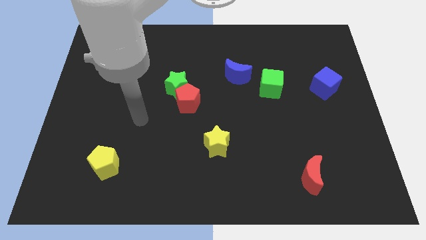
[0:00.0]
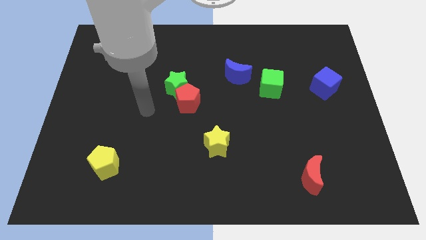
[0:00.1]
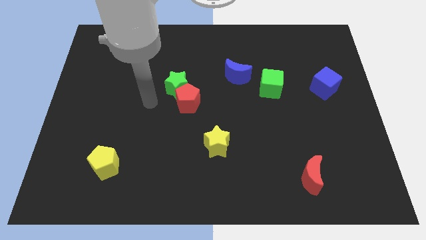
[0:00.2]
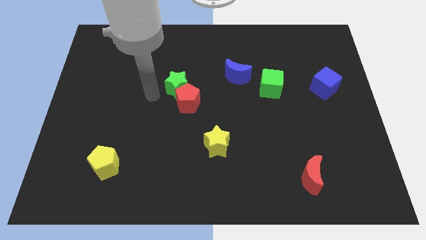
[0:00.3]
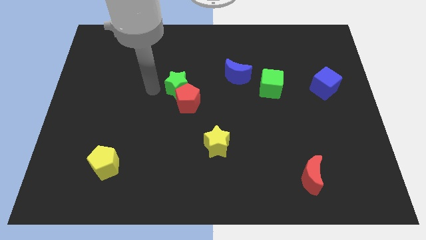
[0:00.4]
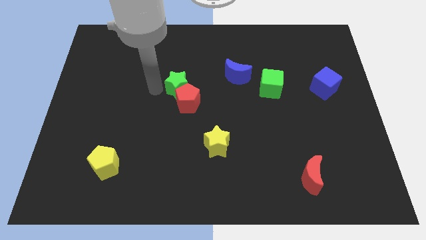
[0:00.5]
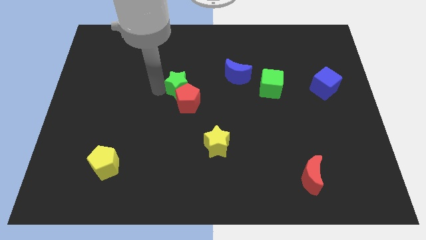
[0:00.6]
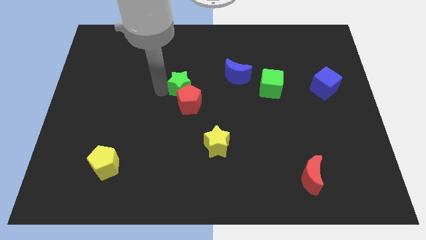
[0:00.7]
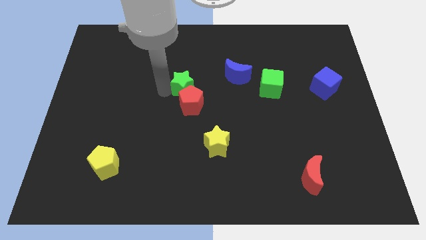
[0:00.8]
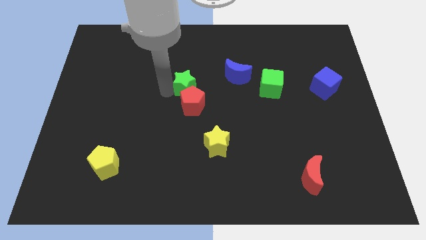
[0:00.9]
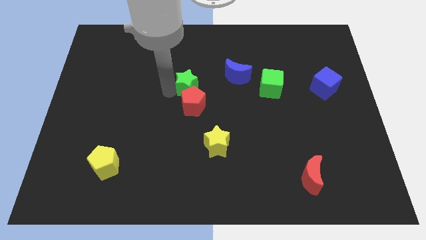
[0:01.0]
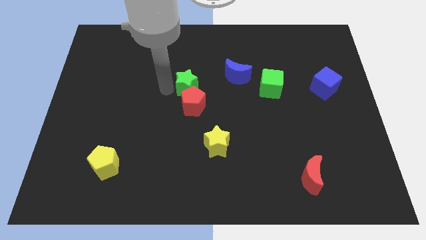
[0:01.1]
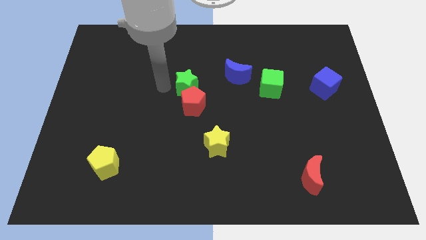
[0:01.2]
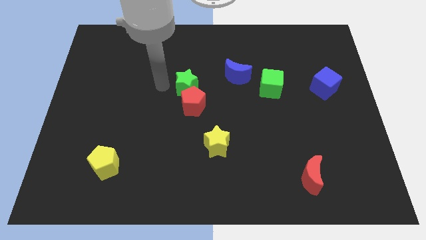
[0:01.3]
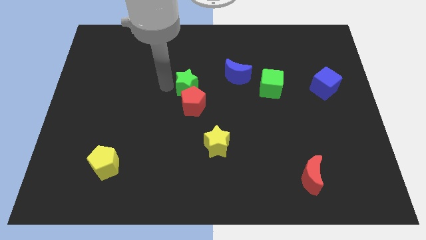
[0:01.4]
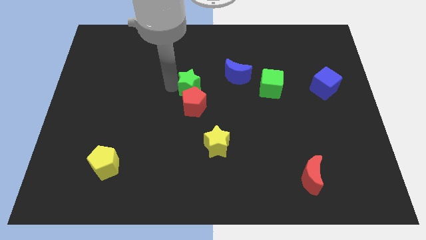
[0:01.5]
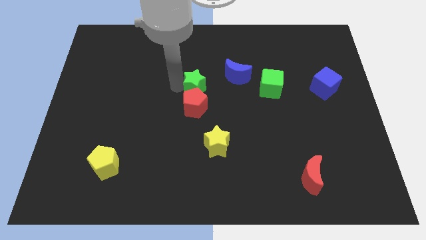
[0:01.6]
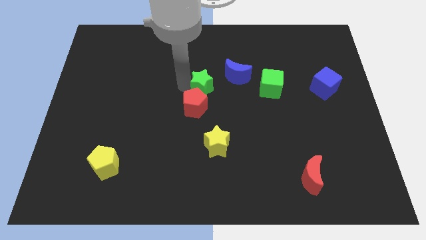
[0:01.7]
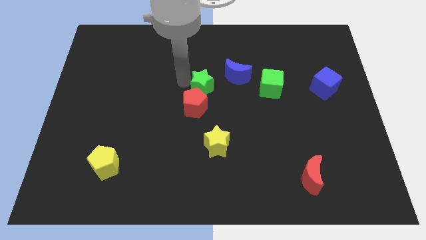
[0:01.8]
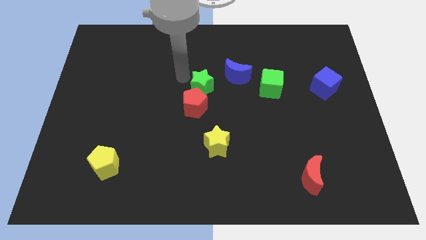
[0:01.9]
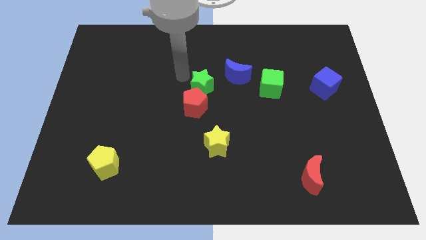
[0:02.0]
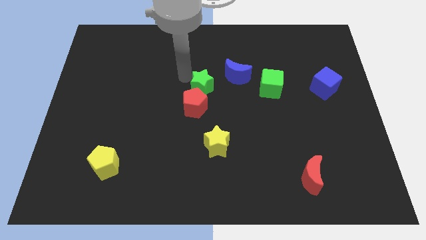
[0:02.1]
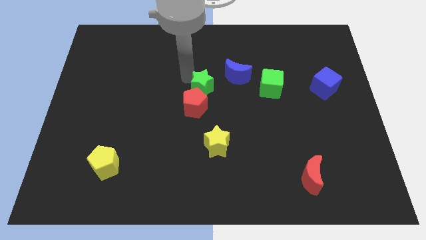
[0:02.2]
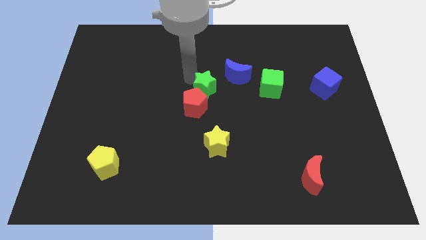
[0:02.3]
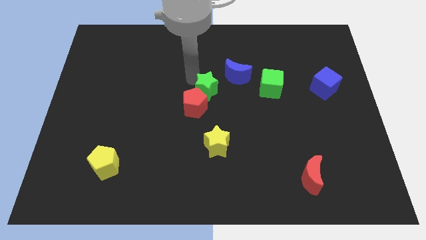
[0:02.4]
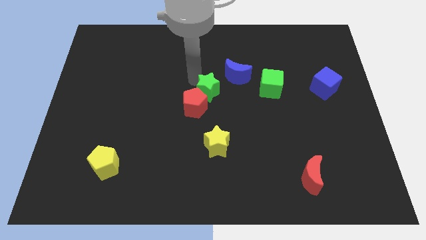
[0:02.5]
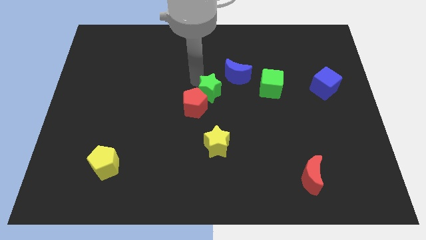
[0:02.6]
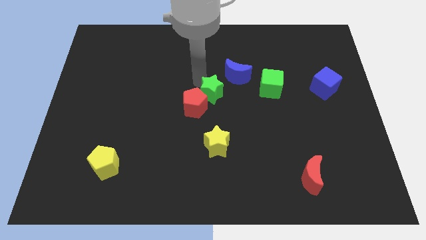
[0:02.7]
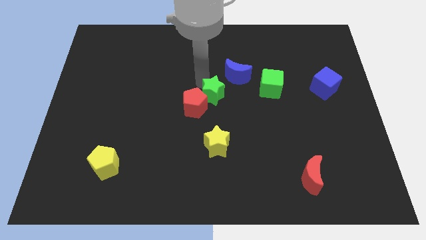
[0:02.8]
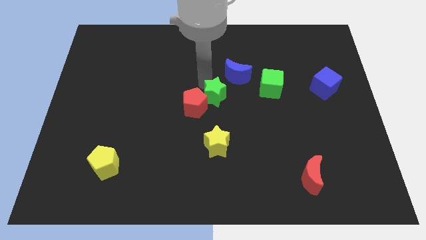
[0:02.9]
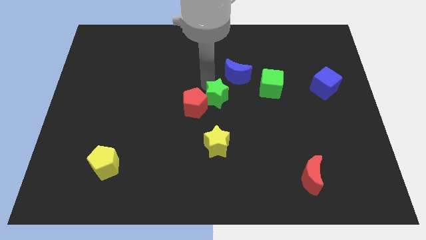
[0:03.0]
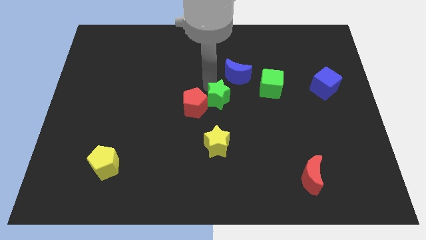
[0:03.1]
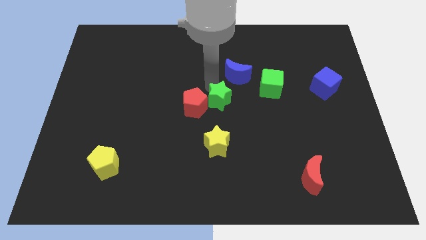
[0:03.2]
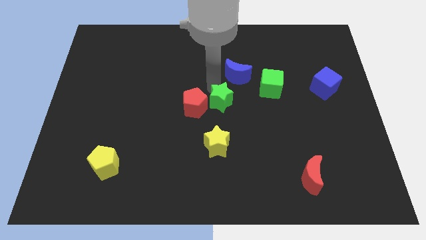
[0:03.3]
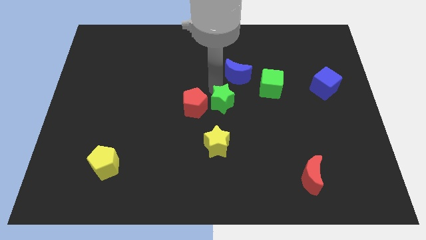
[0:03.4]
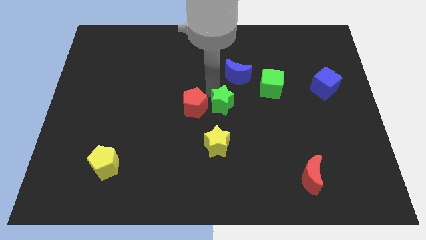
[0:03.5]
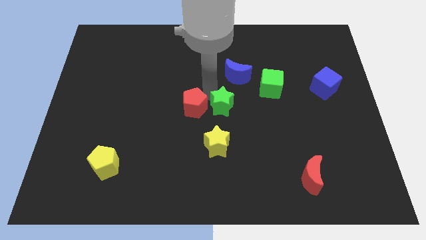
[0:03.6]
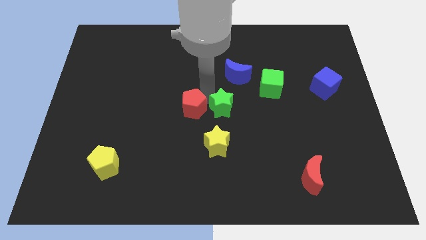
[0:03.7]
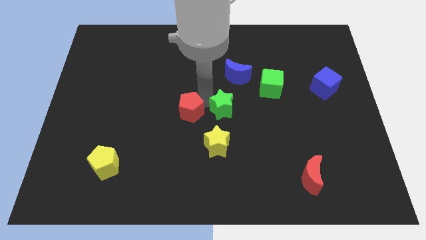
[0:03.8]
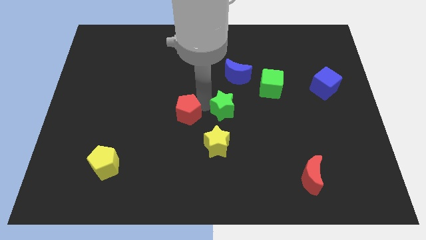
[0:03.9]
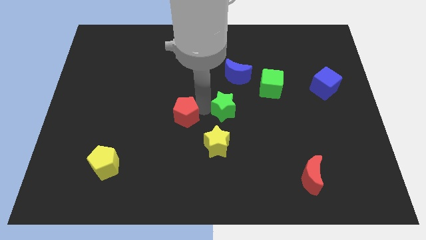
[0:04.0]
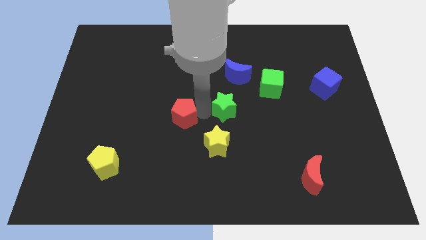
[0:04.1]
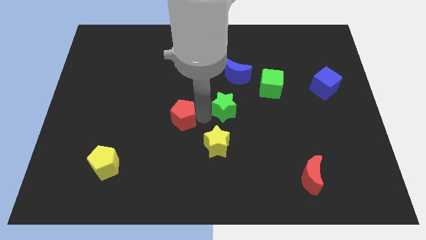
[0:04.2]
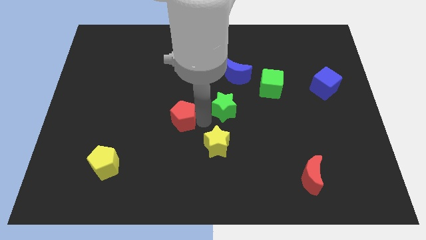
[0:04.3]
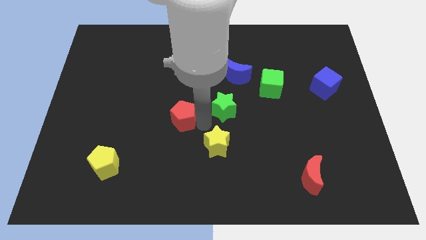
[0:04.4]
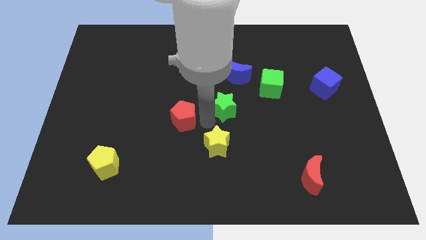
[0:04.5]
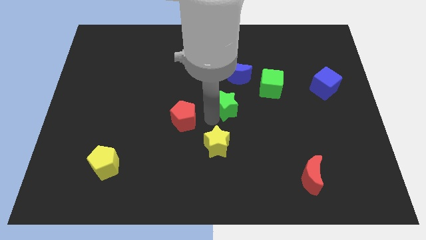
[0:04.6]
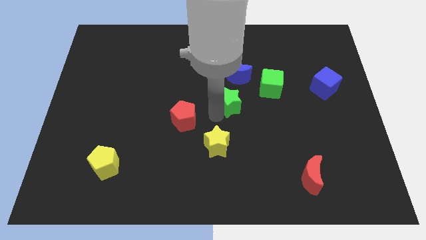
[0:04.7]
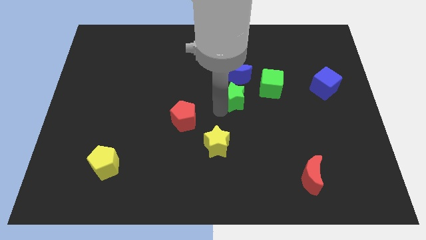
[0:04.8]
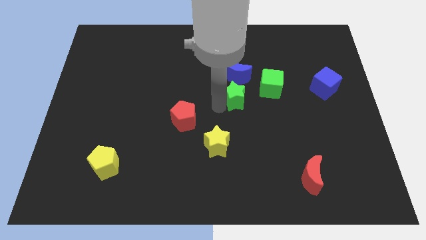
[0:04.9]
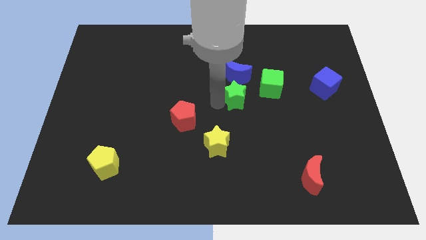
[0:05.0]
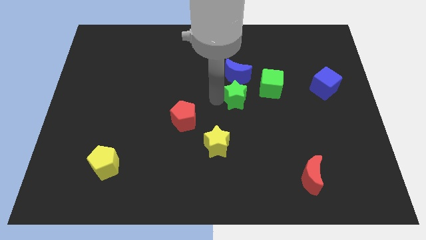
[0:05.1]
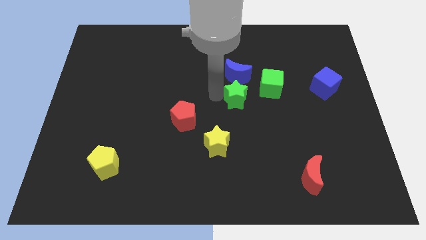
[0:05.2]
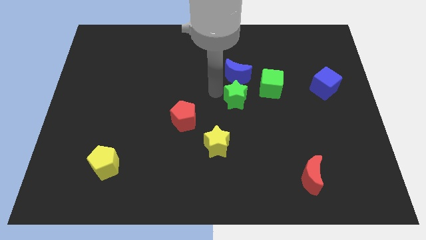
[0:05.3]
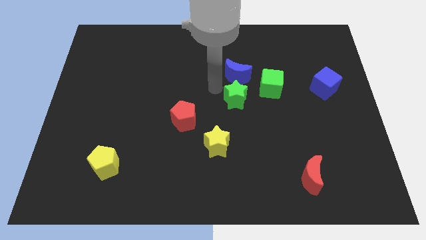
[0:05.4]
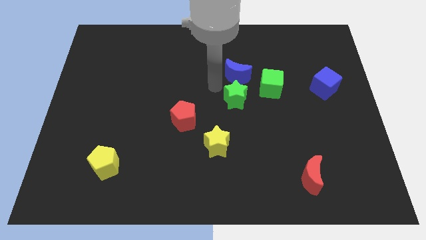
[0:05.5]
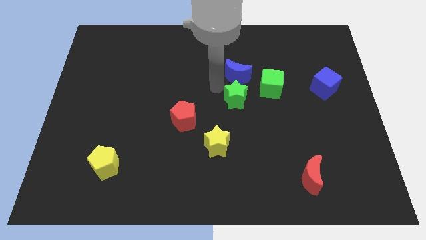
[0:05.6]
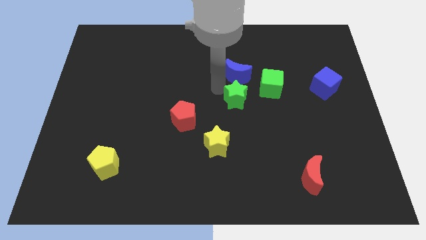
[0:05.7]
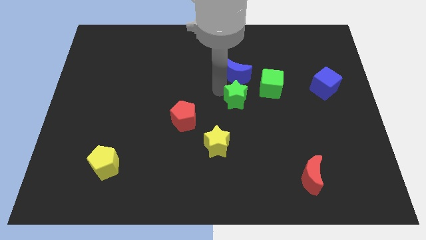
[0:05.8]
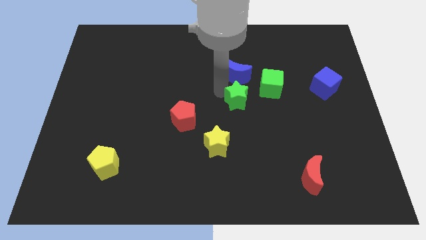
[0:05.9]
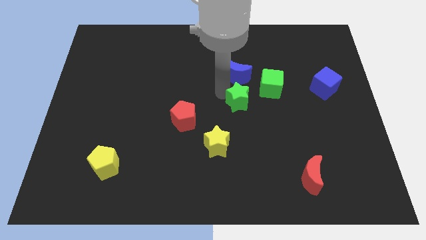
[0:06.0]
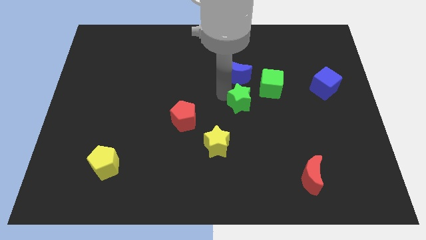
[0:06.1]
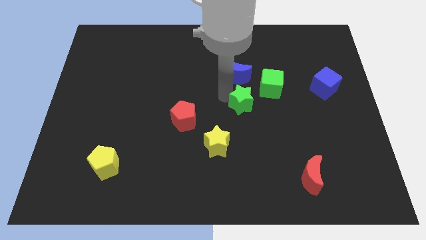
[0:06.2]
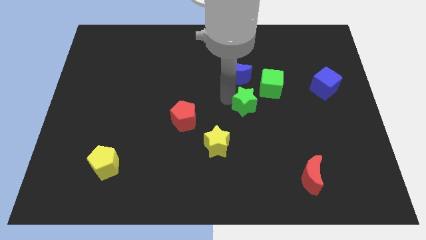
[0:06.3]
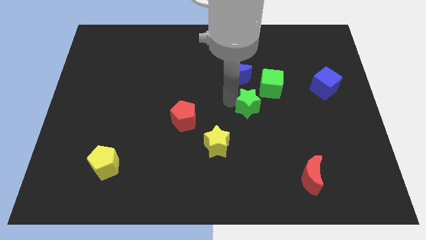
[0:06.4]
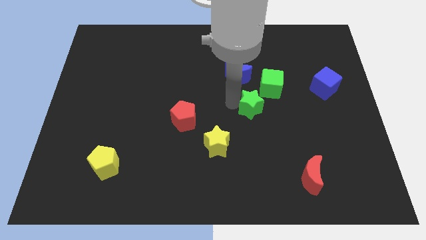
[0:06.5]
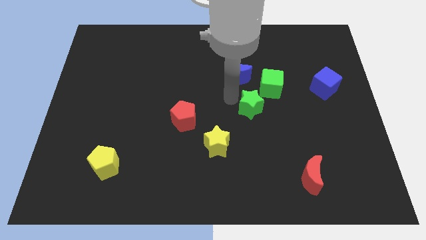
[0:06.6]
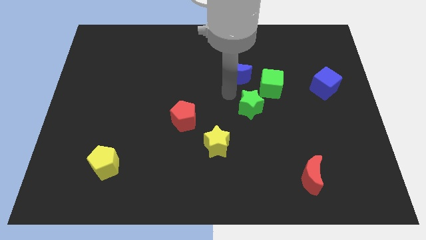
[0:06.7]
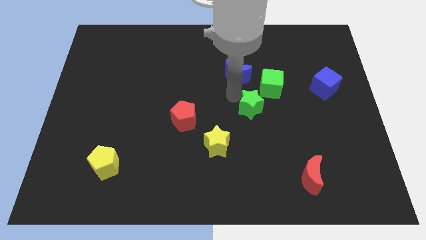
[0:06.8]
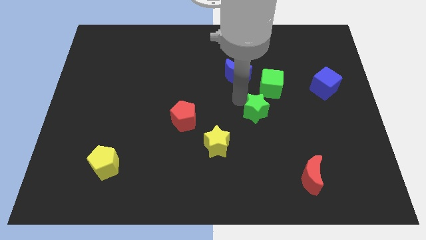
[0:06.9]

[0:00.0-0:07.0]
put the green star below the green cube
